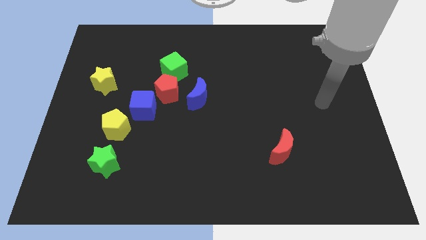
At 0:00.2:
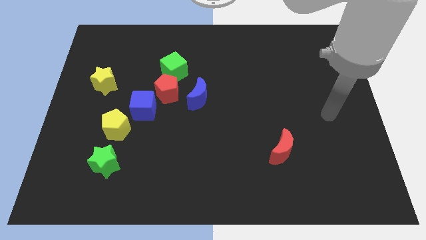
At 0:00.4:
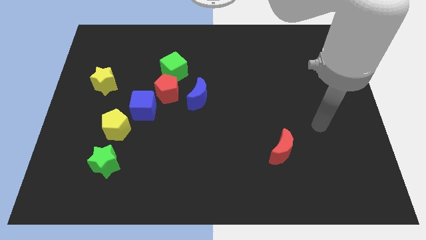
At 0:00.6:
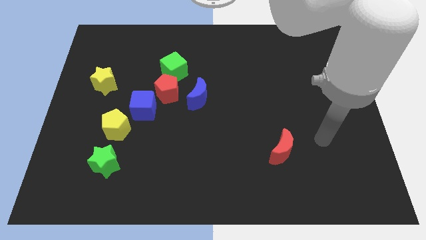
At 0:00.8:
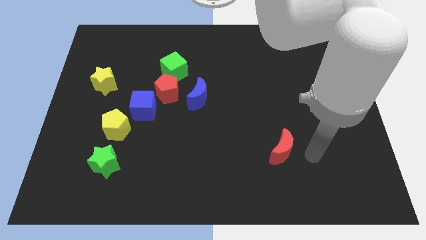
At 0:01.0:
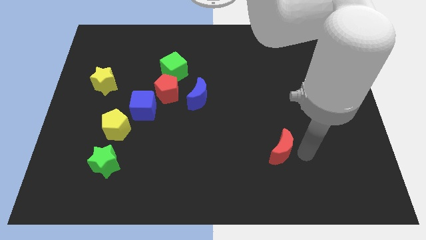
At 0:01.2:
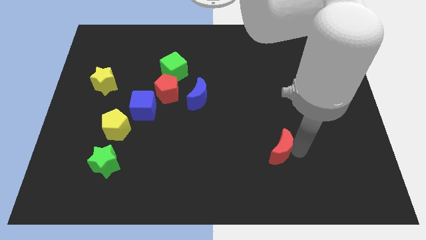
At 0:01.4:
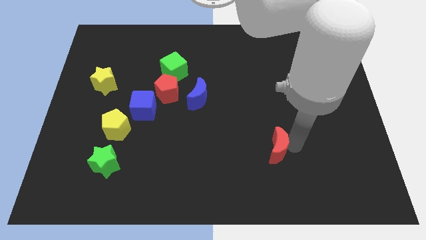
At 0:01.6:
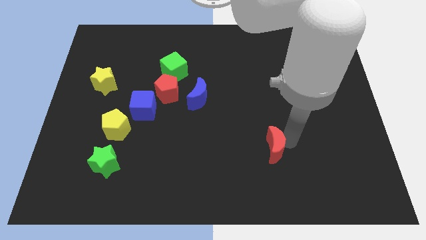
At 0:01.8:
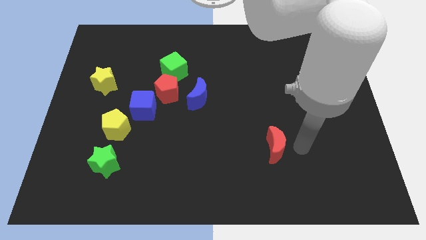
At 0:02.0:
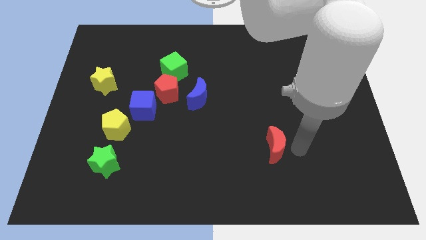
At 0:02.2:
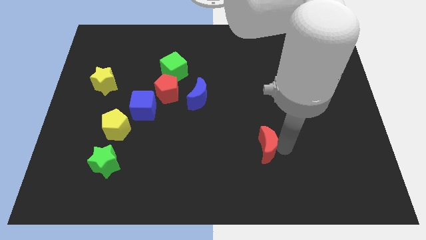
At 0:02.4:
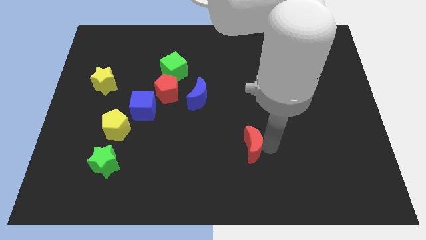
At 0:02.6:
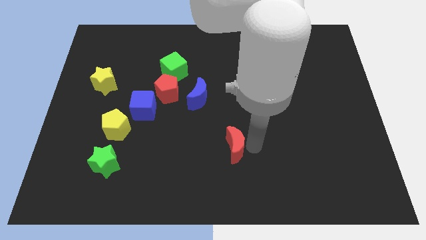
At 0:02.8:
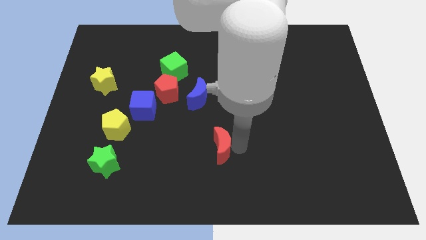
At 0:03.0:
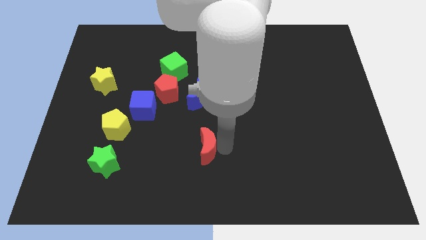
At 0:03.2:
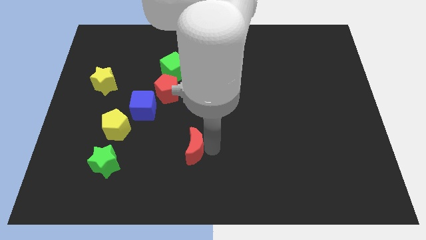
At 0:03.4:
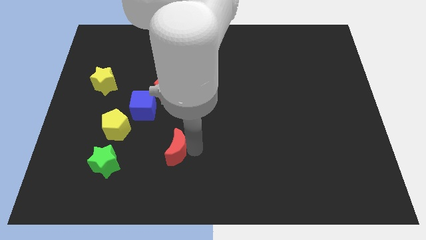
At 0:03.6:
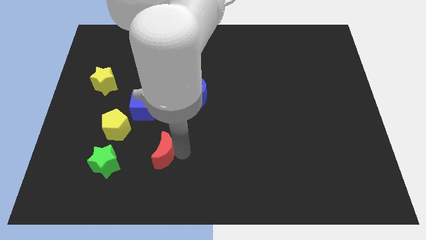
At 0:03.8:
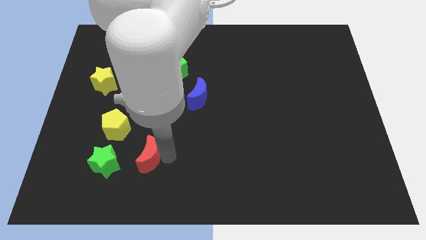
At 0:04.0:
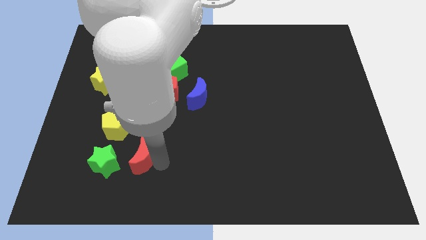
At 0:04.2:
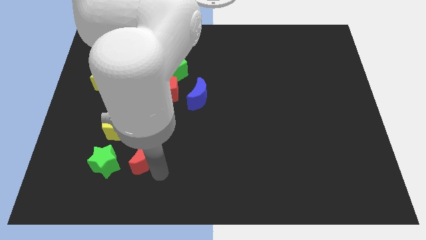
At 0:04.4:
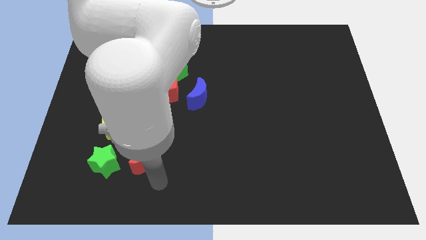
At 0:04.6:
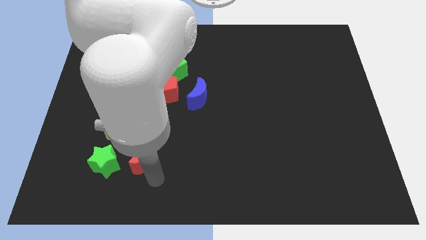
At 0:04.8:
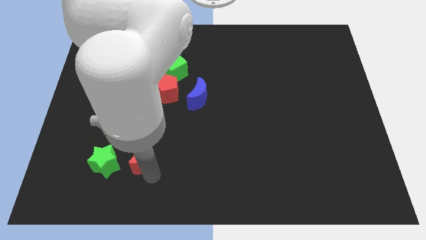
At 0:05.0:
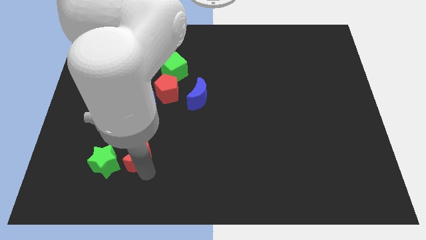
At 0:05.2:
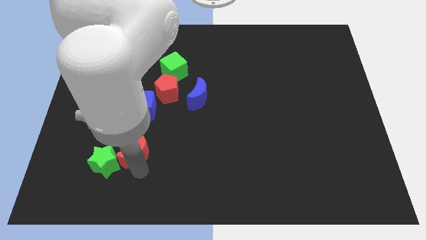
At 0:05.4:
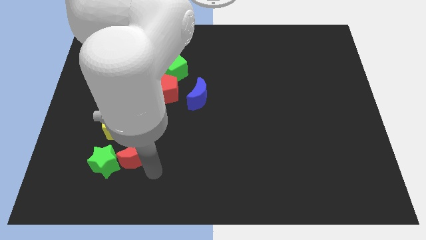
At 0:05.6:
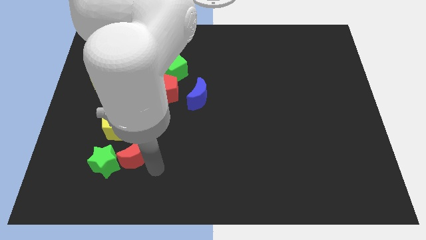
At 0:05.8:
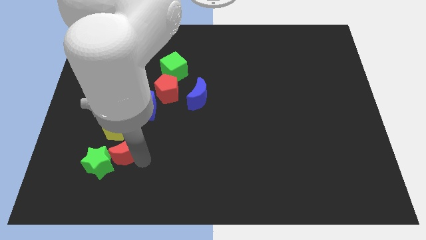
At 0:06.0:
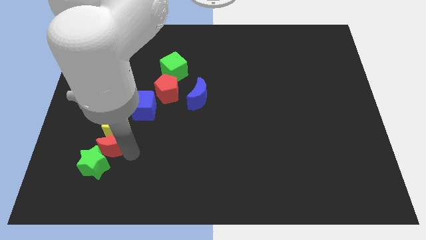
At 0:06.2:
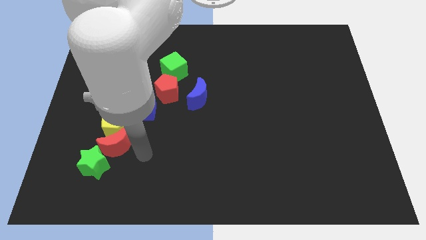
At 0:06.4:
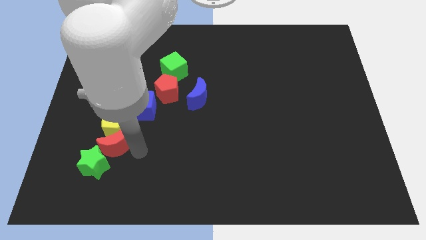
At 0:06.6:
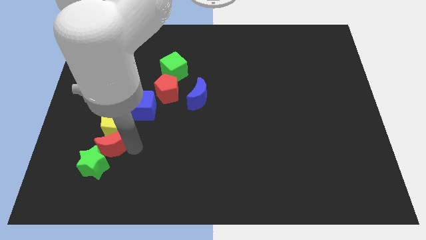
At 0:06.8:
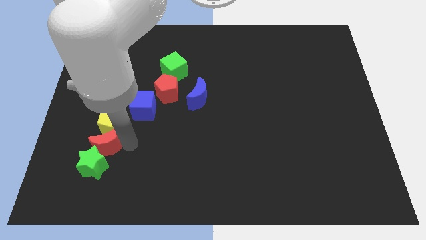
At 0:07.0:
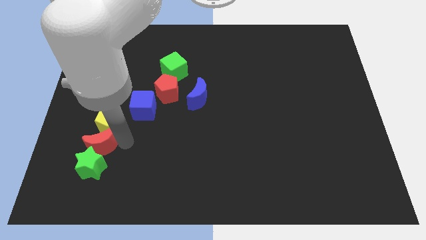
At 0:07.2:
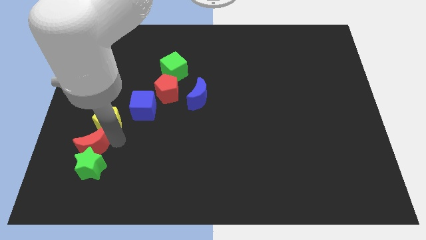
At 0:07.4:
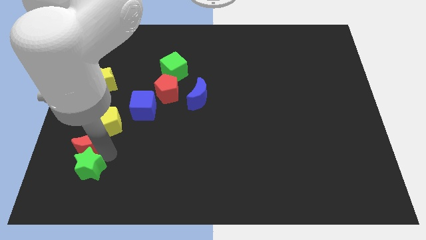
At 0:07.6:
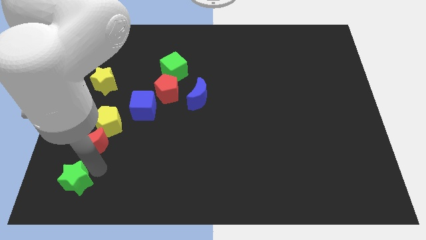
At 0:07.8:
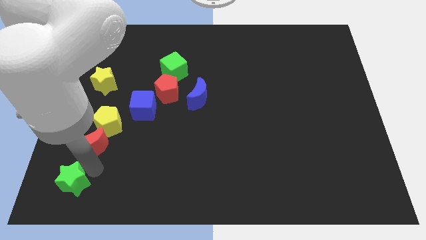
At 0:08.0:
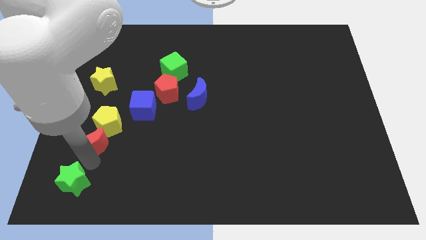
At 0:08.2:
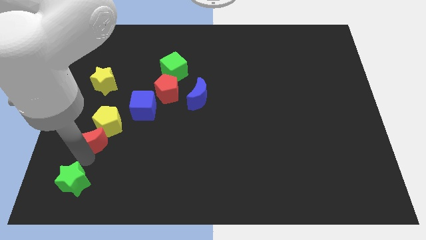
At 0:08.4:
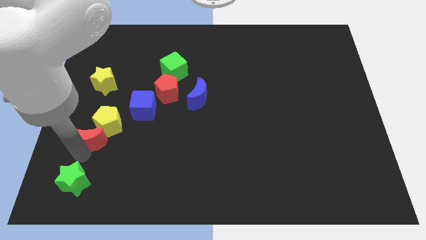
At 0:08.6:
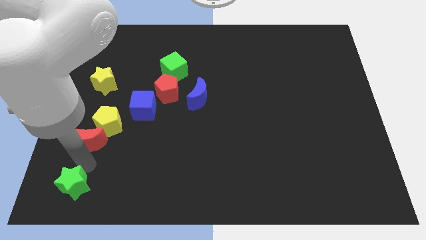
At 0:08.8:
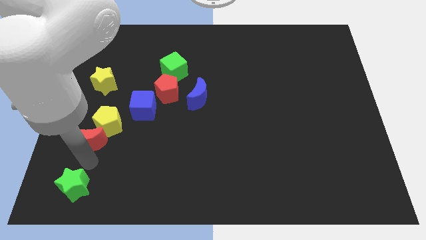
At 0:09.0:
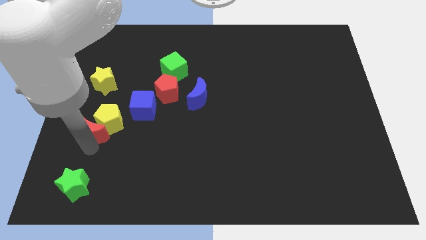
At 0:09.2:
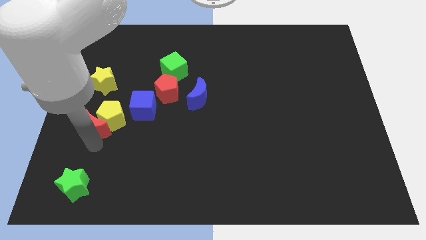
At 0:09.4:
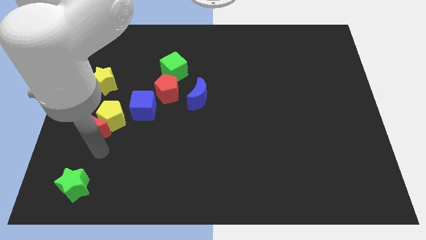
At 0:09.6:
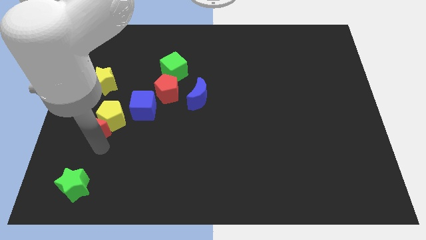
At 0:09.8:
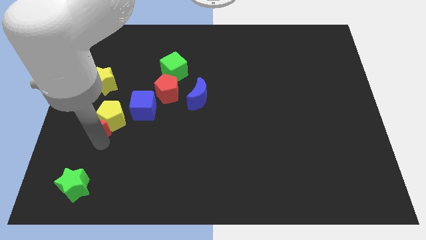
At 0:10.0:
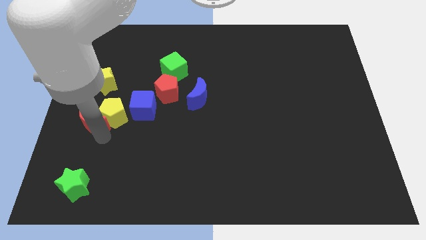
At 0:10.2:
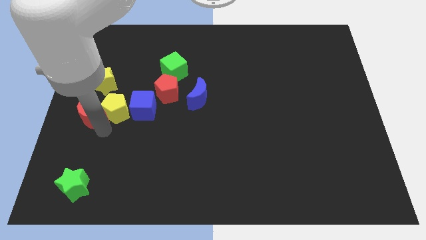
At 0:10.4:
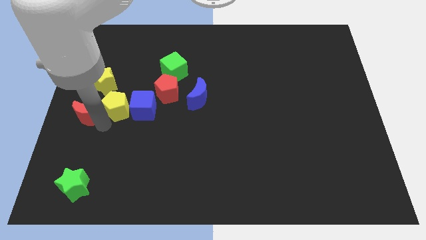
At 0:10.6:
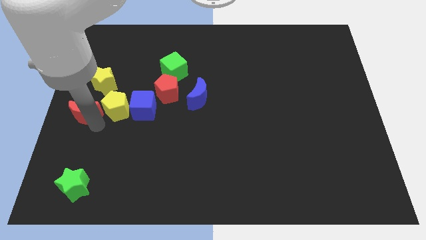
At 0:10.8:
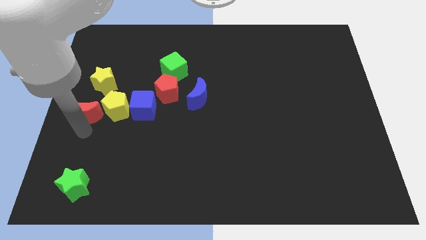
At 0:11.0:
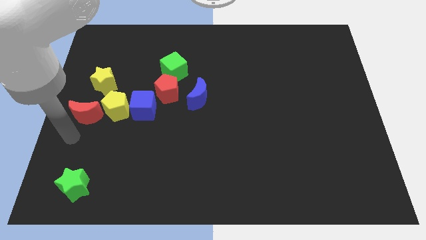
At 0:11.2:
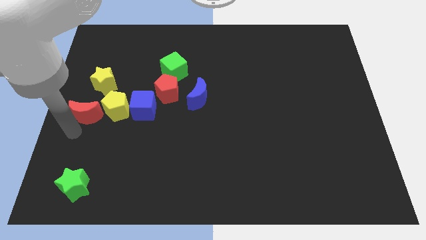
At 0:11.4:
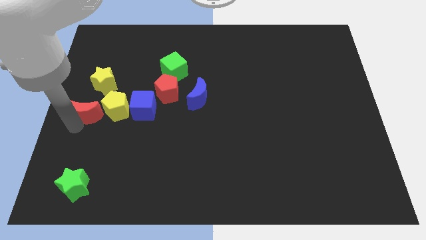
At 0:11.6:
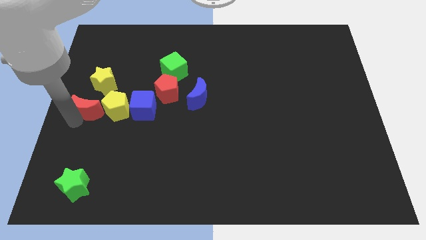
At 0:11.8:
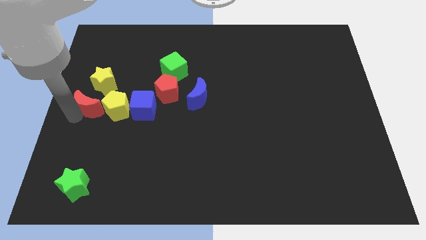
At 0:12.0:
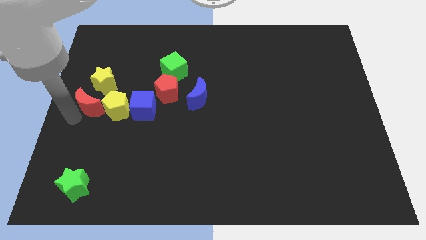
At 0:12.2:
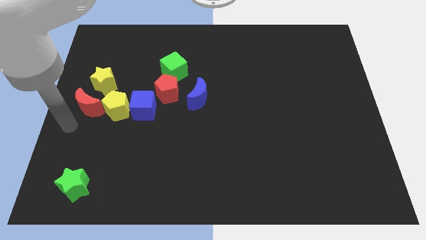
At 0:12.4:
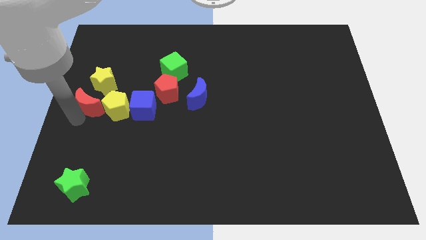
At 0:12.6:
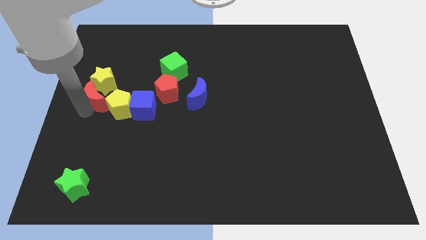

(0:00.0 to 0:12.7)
push the red moon to the yellow star

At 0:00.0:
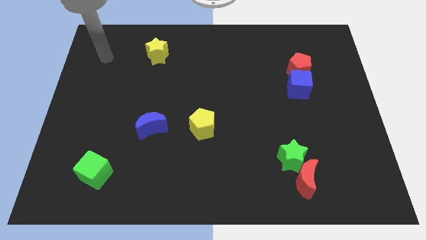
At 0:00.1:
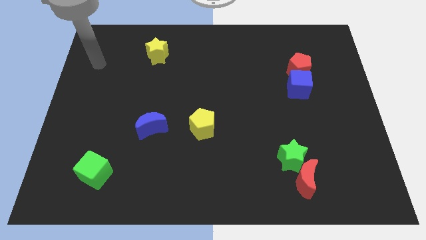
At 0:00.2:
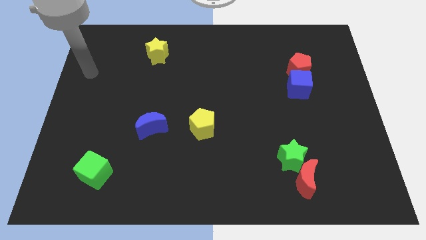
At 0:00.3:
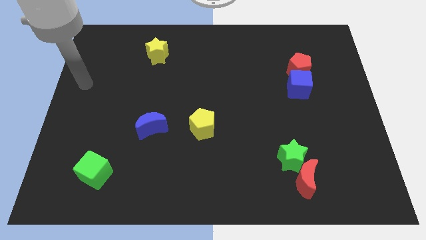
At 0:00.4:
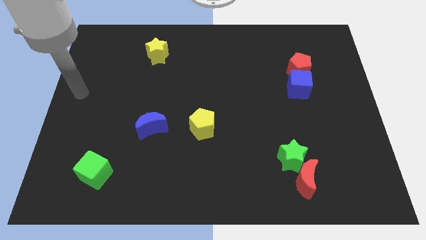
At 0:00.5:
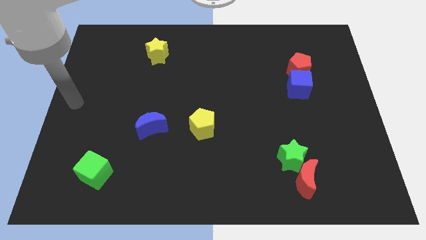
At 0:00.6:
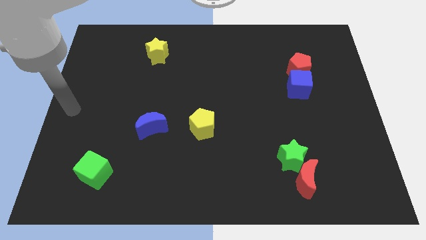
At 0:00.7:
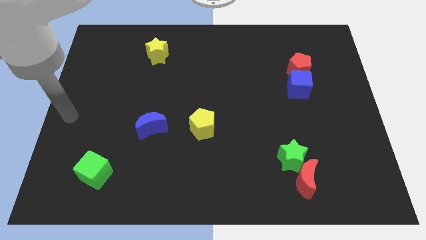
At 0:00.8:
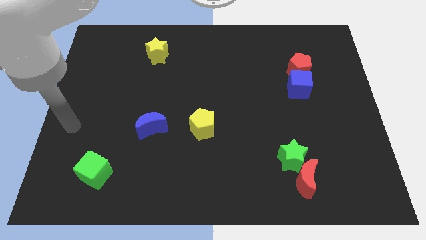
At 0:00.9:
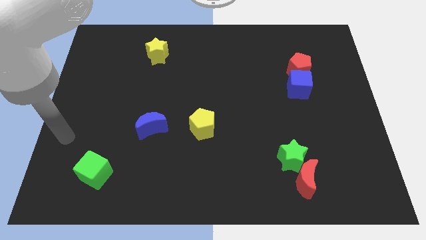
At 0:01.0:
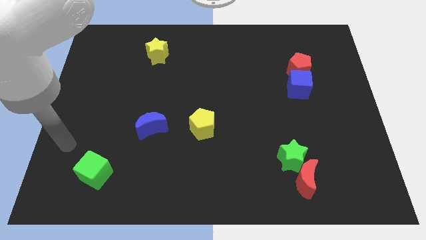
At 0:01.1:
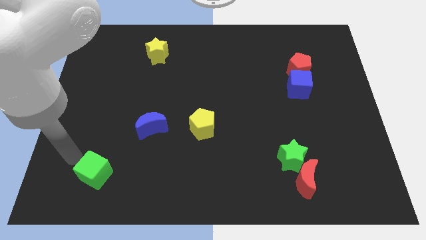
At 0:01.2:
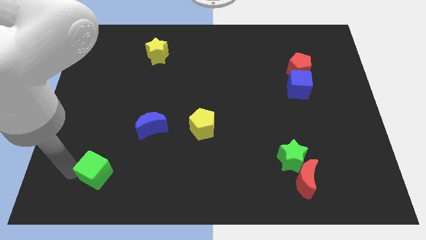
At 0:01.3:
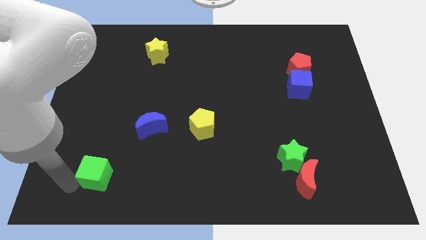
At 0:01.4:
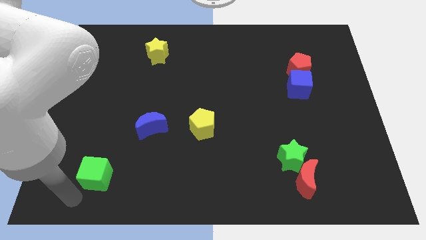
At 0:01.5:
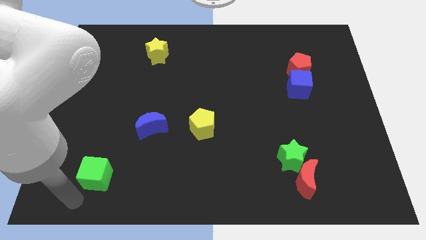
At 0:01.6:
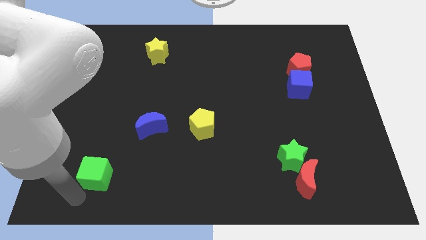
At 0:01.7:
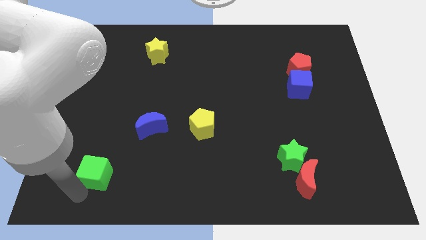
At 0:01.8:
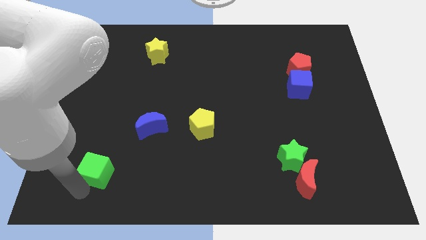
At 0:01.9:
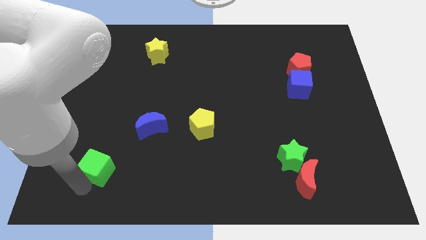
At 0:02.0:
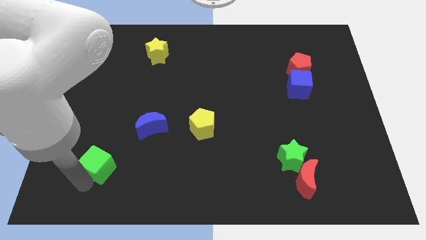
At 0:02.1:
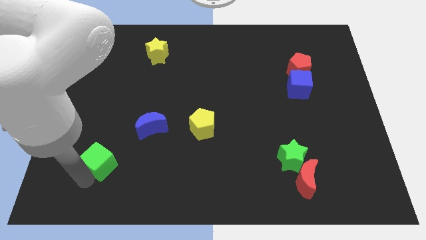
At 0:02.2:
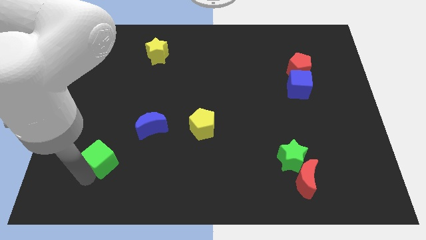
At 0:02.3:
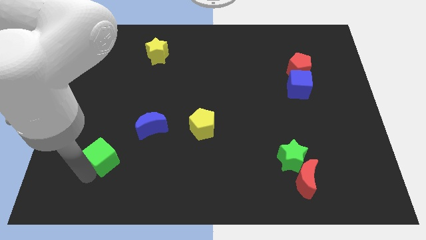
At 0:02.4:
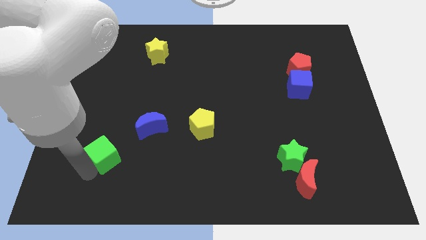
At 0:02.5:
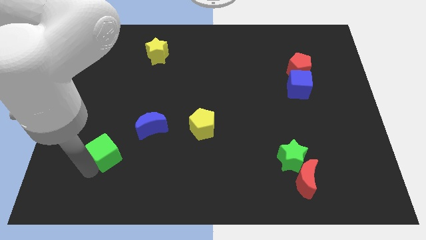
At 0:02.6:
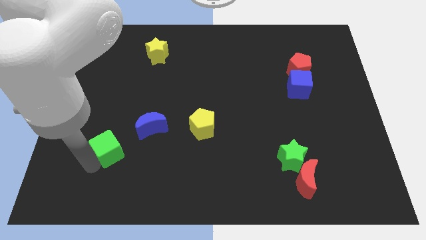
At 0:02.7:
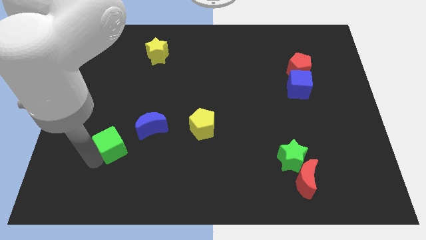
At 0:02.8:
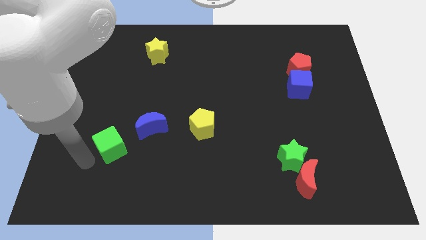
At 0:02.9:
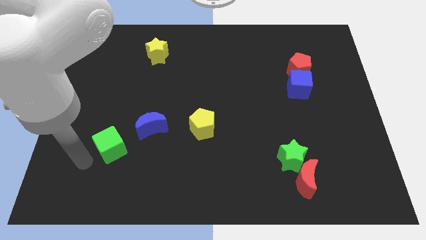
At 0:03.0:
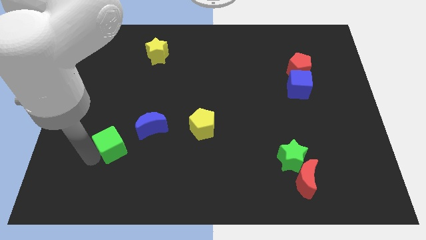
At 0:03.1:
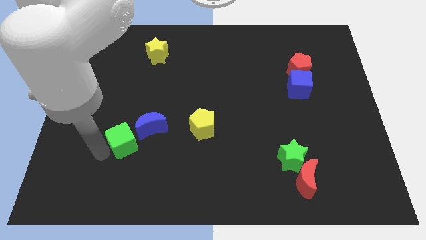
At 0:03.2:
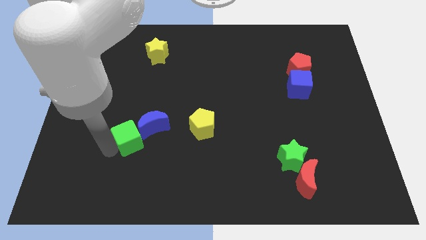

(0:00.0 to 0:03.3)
put the green cube towards the blue moon
